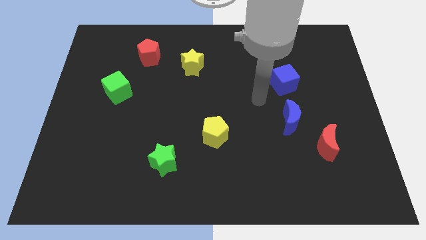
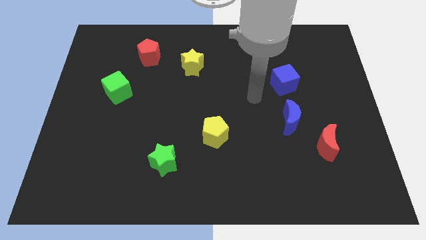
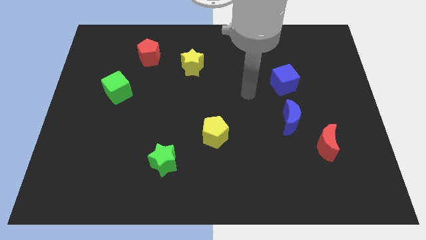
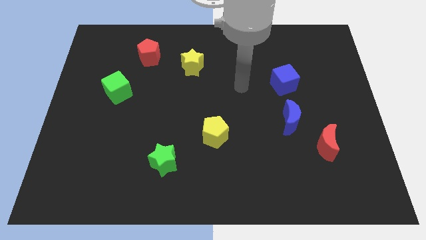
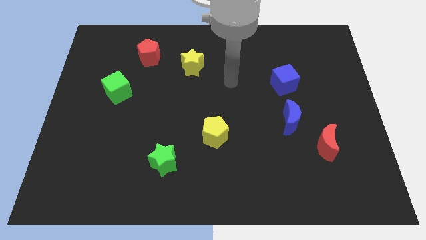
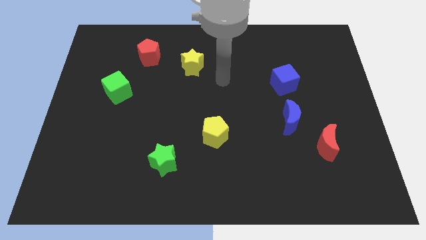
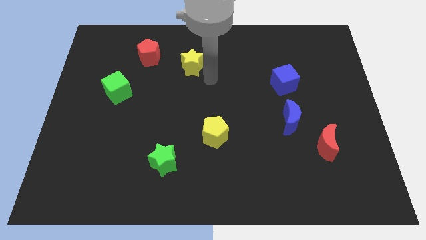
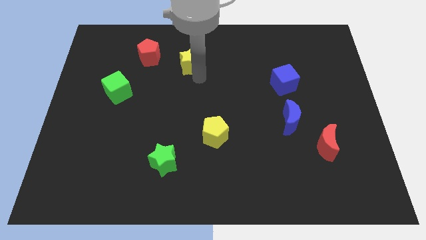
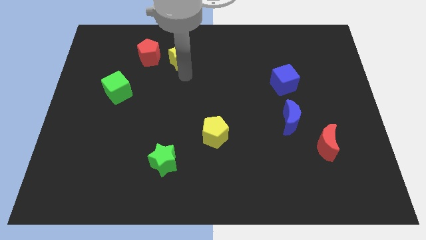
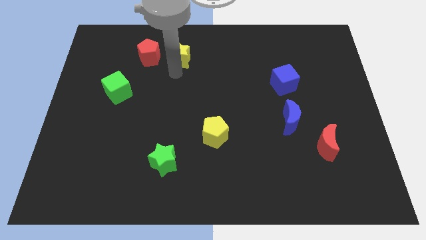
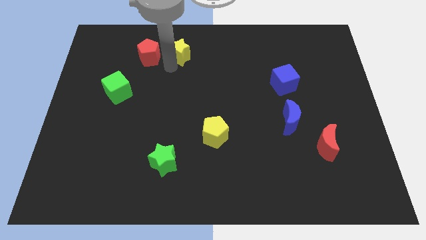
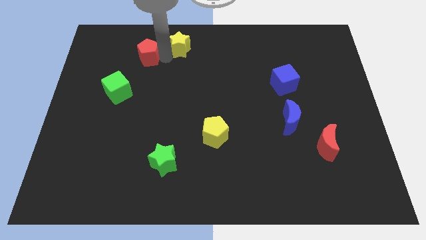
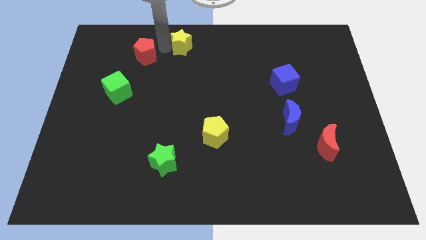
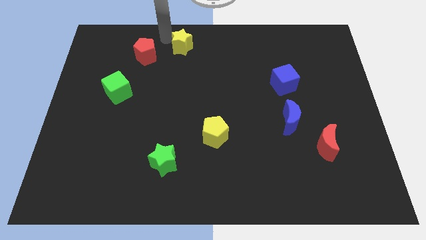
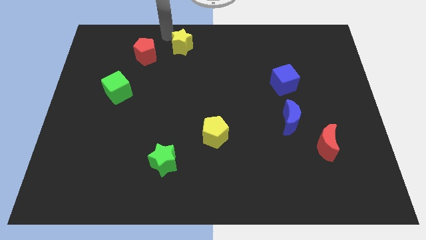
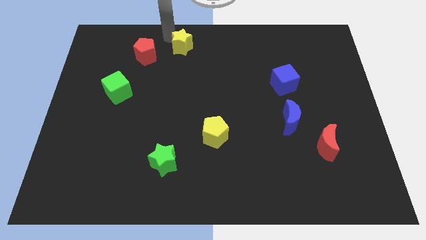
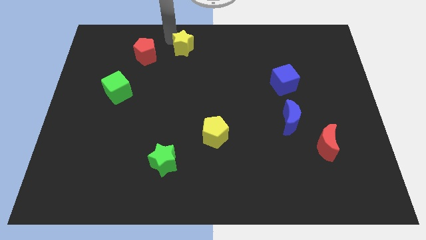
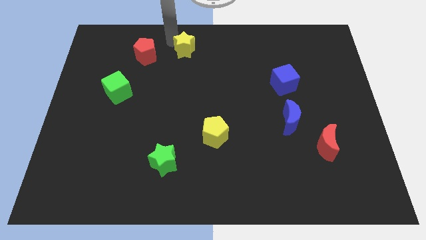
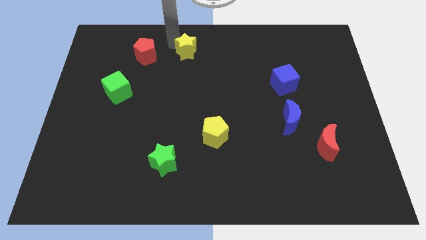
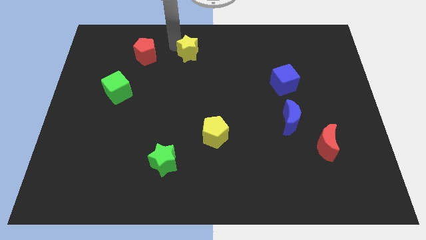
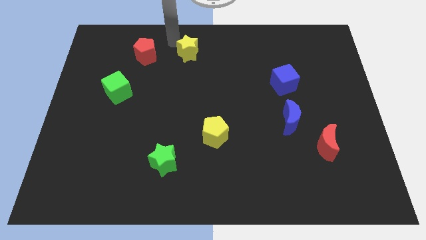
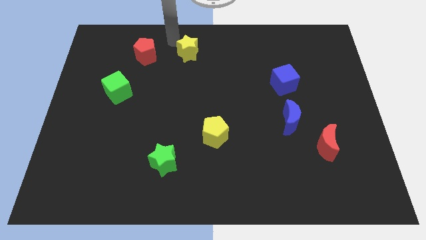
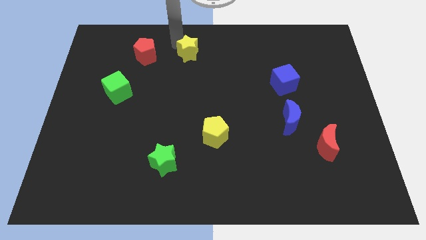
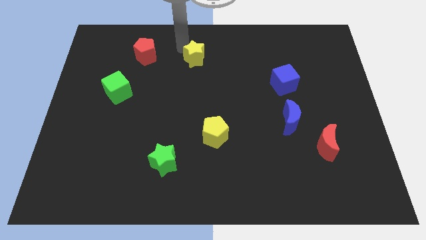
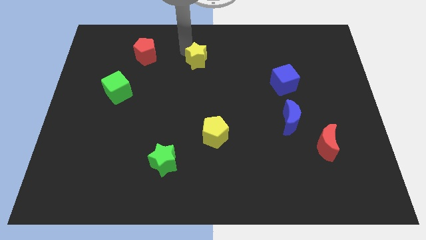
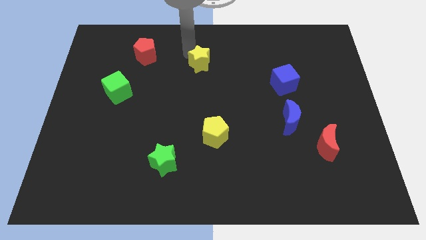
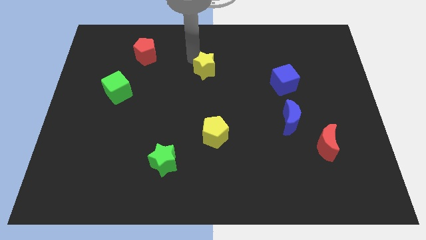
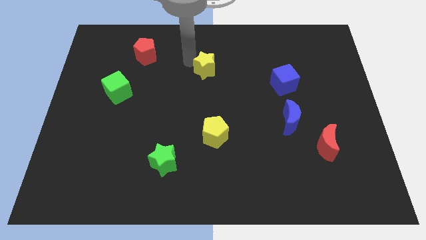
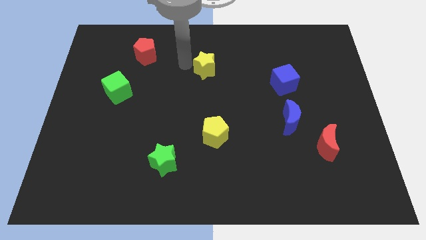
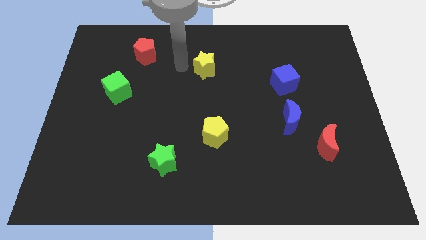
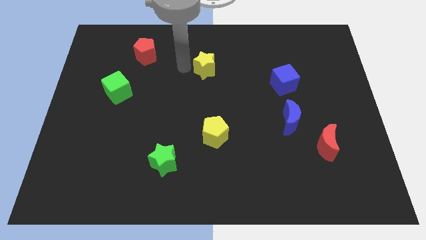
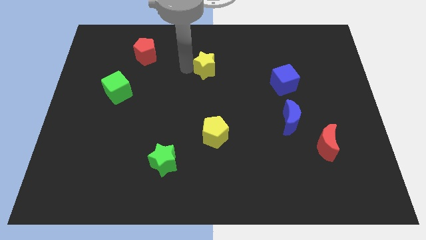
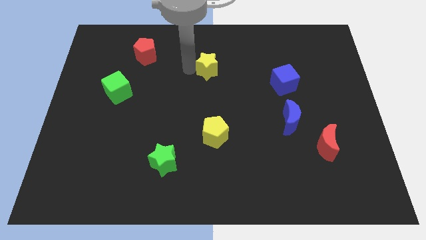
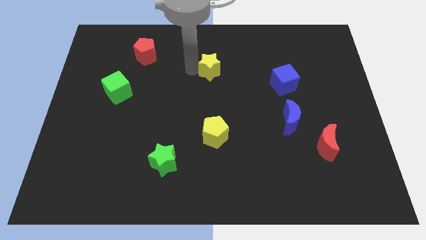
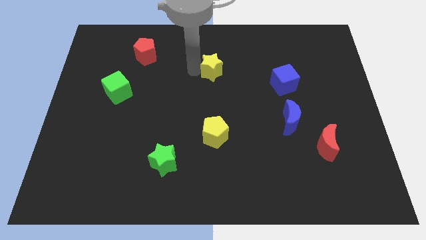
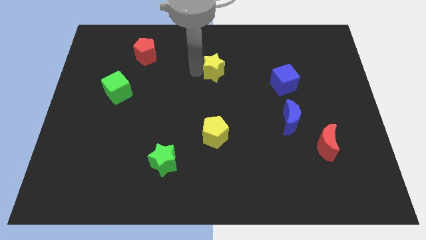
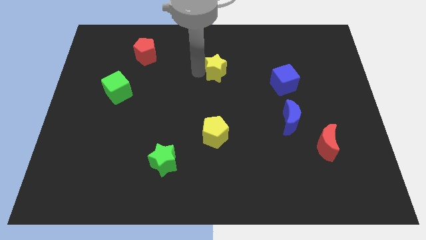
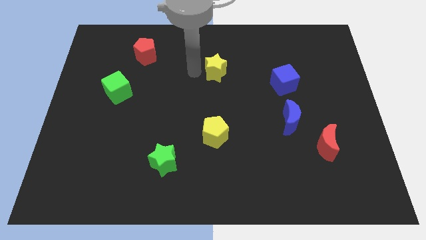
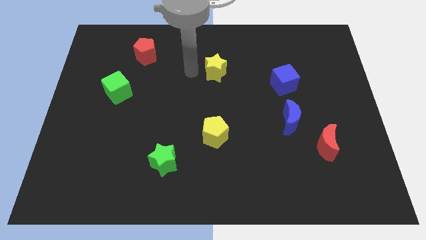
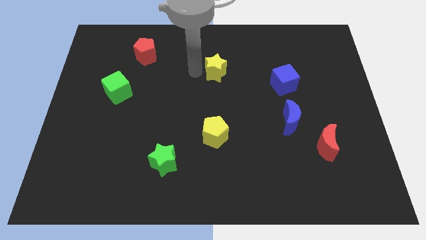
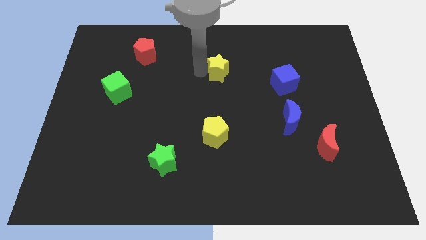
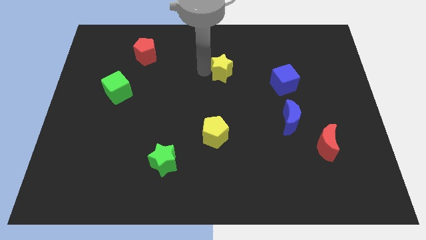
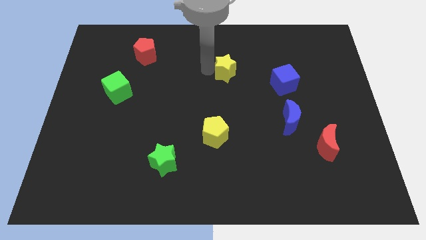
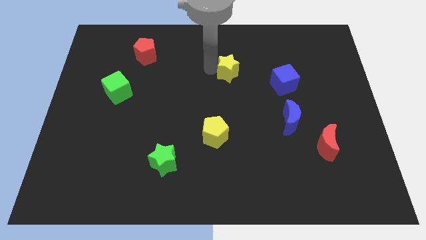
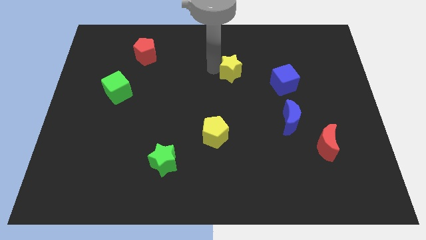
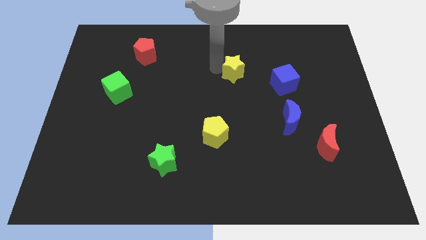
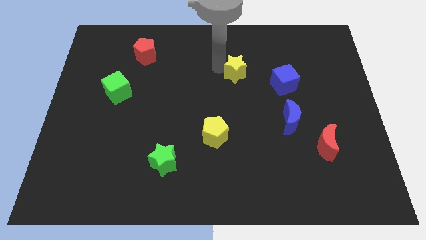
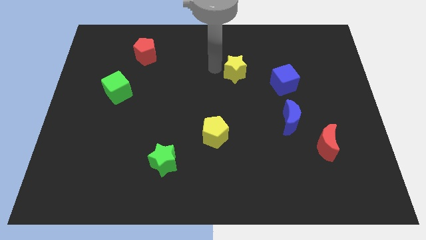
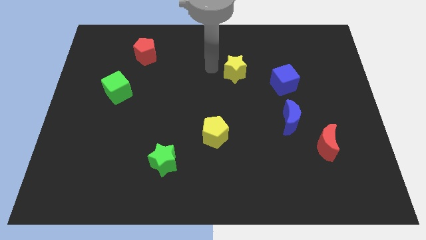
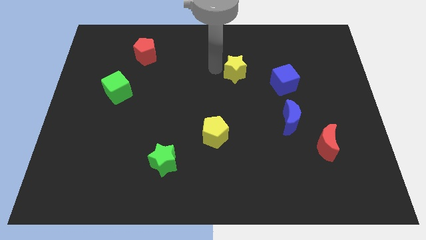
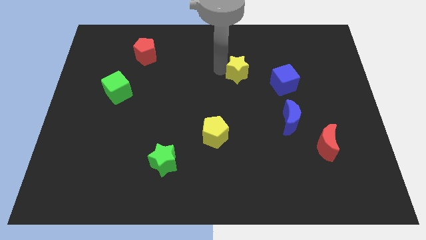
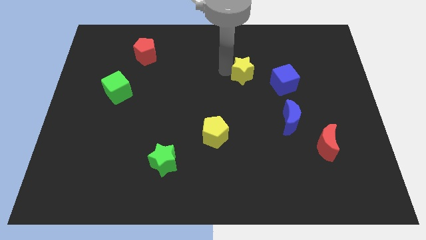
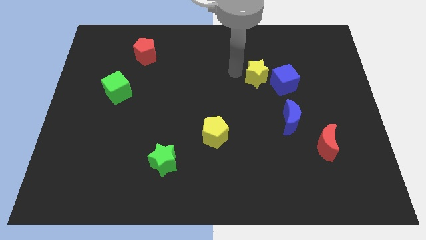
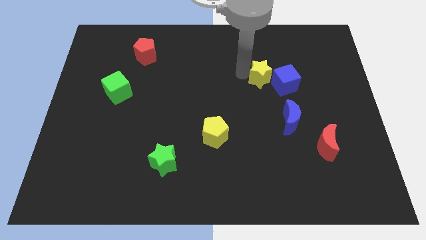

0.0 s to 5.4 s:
put the yellow star next to the blue cube

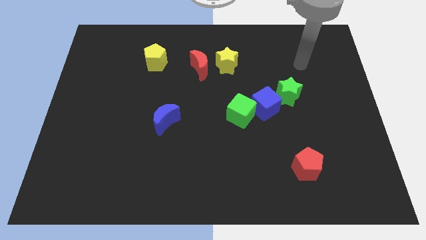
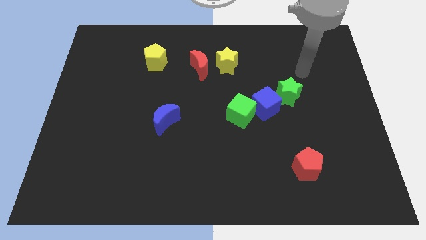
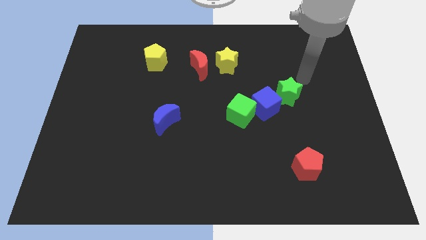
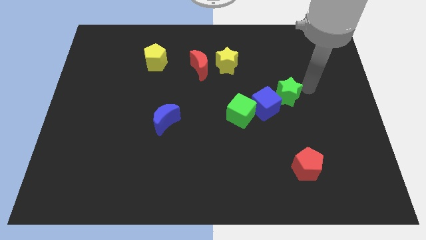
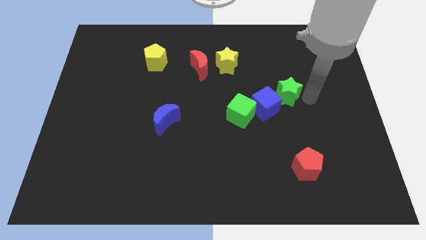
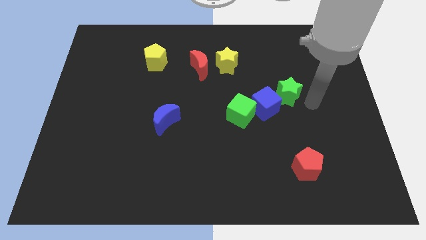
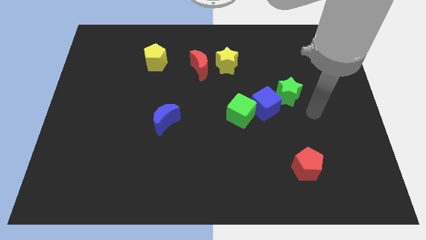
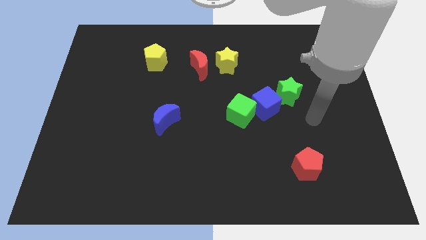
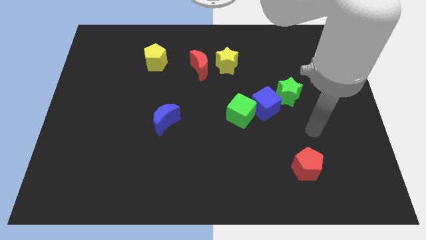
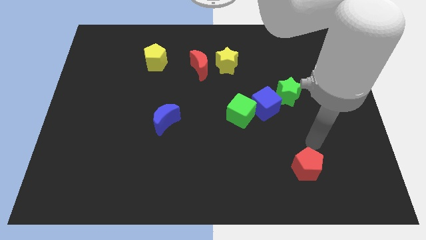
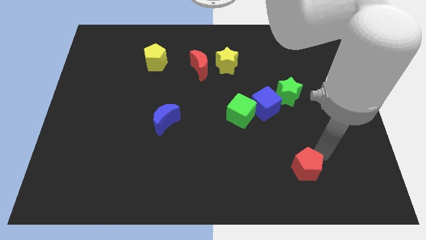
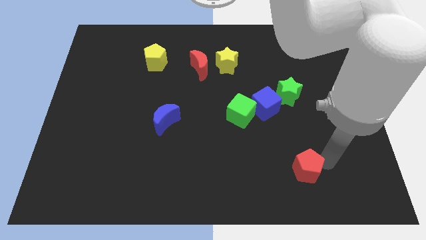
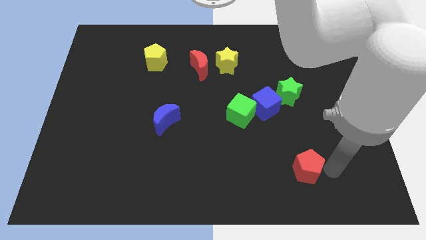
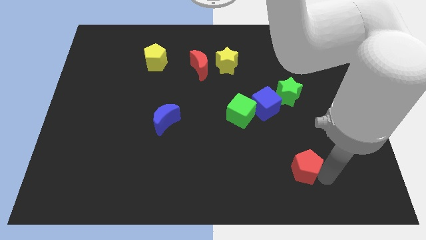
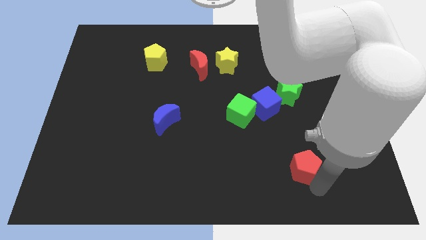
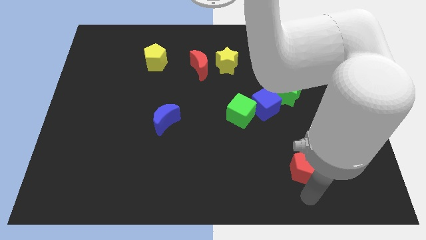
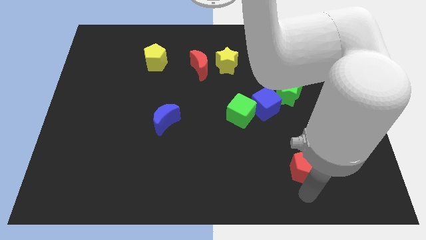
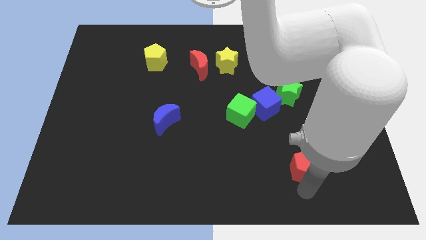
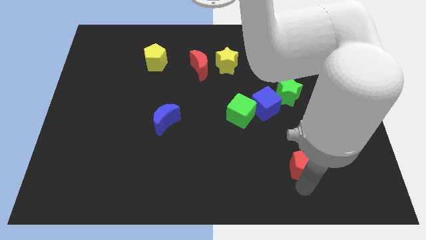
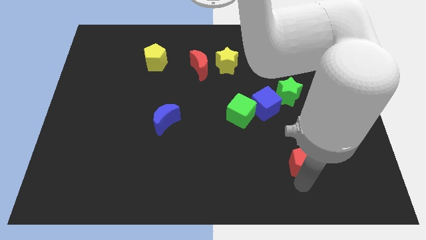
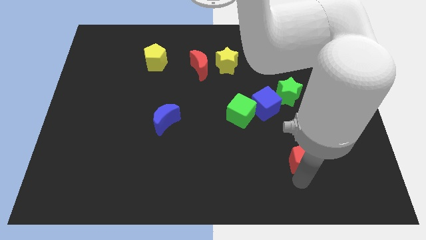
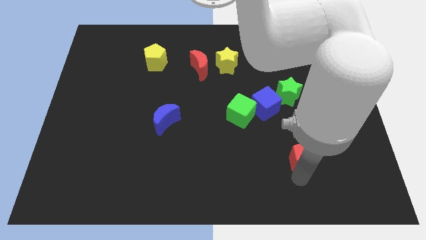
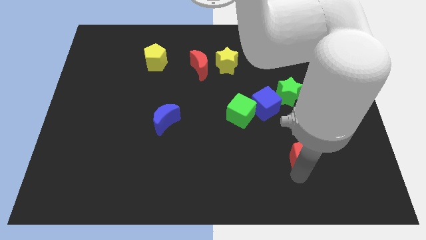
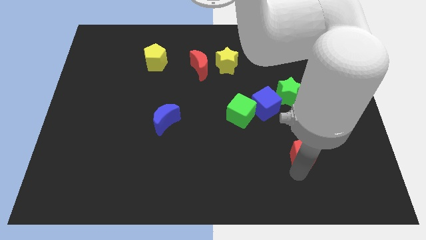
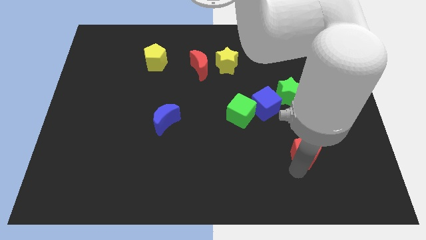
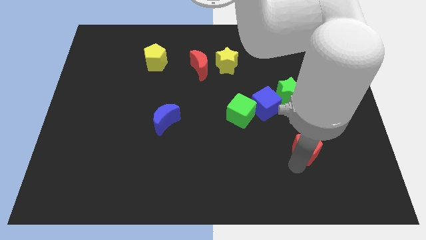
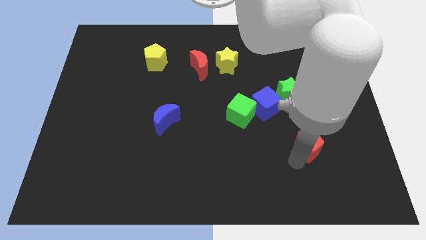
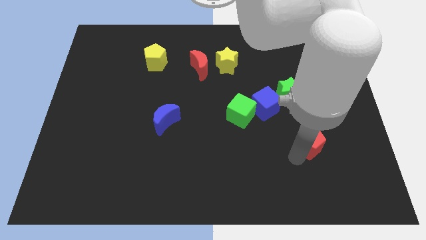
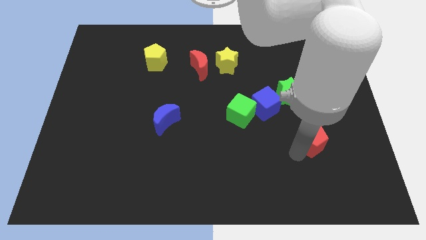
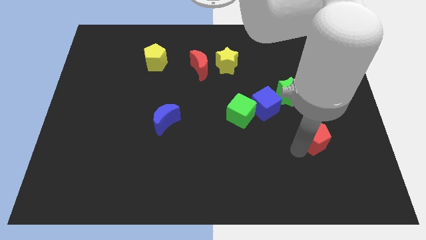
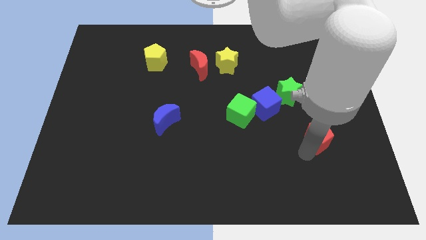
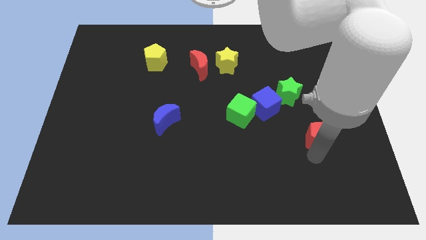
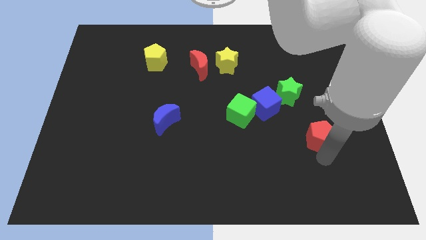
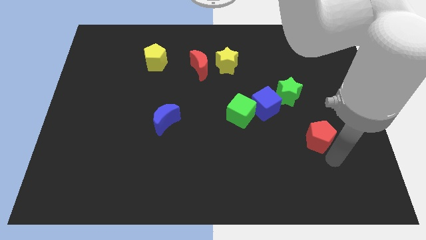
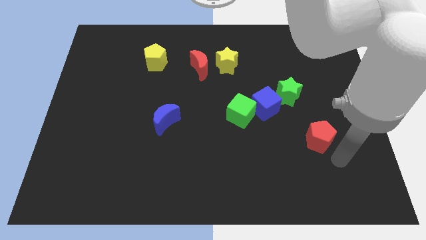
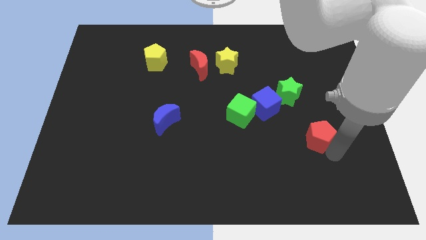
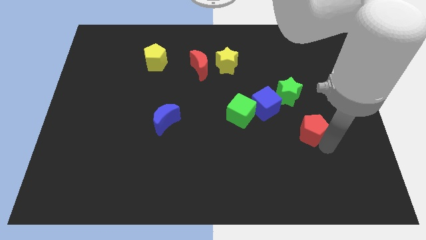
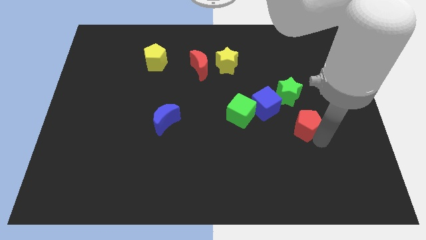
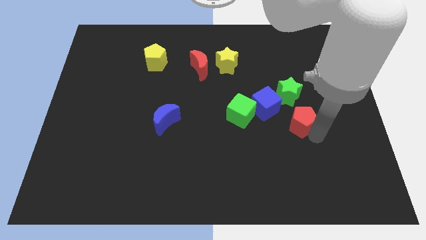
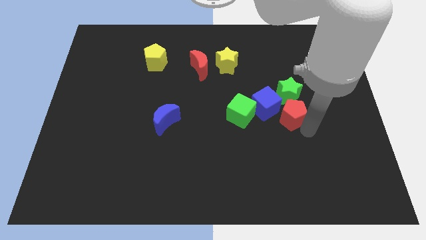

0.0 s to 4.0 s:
move the red pentagon next to the green star
